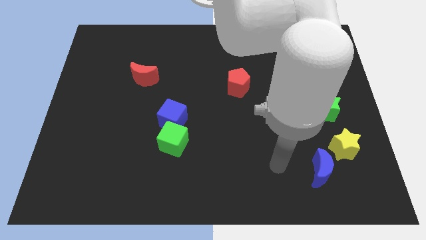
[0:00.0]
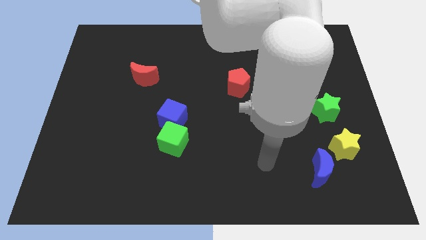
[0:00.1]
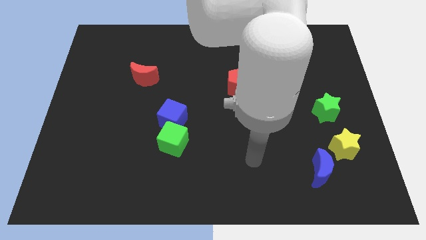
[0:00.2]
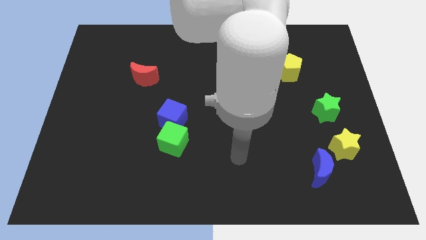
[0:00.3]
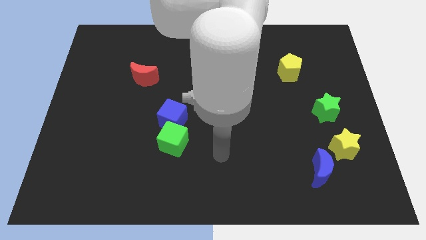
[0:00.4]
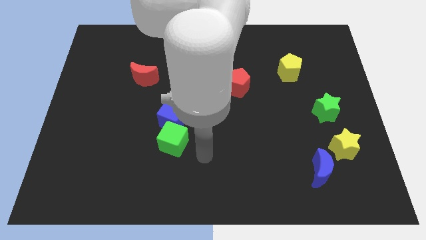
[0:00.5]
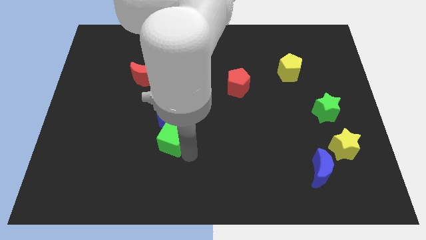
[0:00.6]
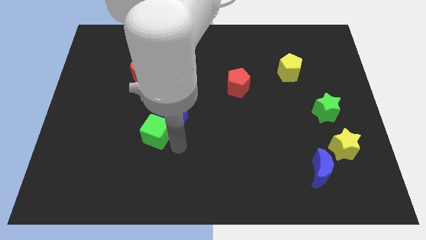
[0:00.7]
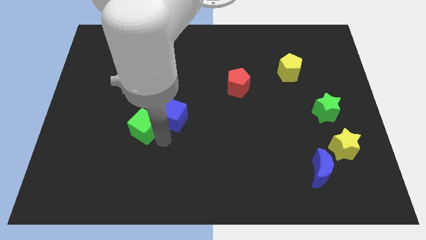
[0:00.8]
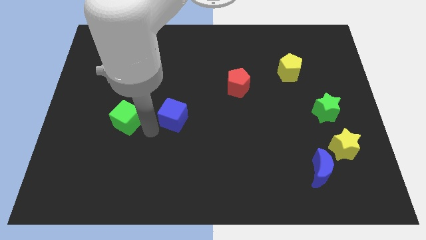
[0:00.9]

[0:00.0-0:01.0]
pull the blue cube apart from the green cube

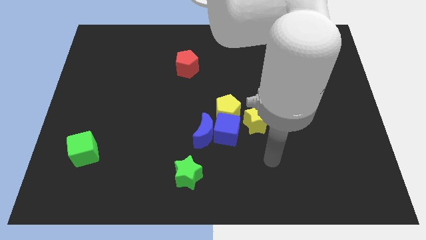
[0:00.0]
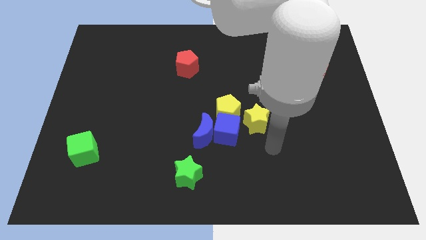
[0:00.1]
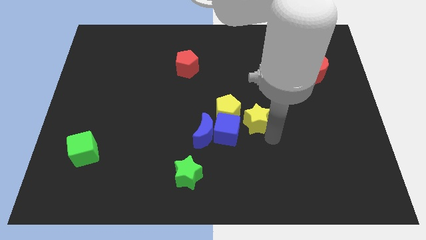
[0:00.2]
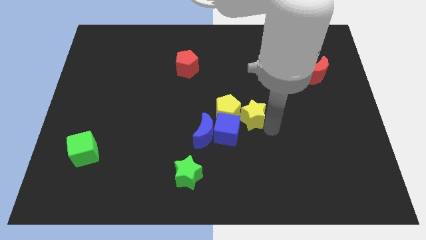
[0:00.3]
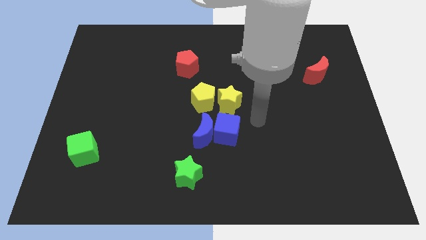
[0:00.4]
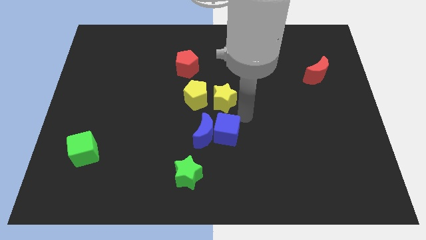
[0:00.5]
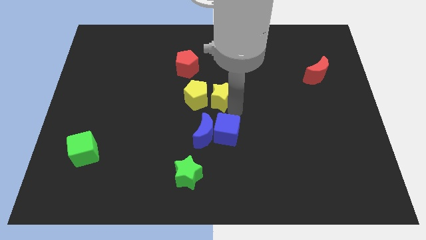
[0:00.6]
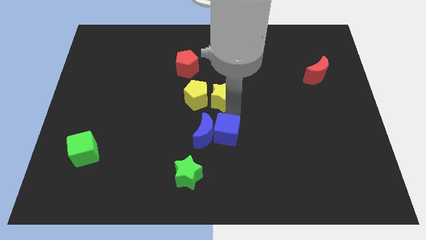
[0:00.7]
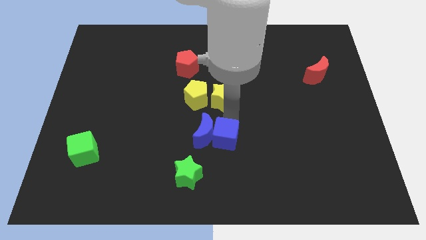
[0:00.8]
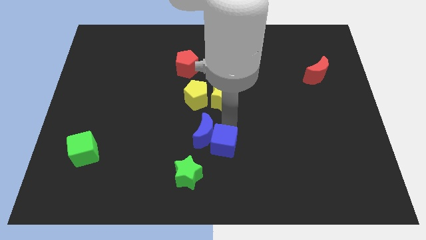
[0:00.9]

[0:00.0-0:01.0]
move the blue cube away from the group

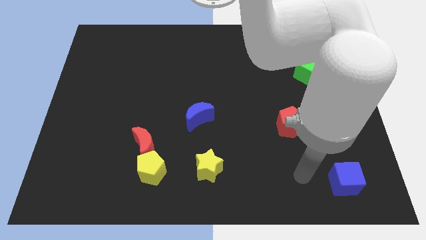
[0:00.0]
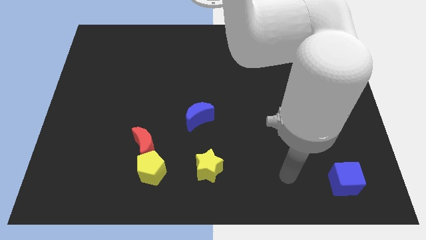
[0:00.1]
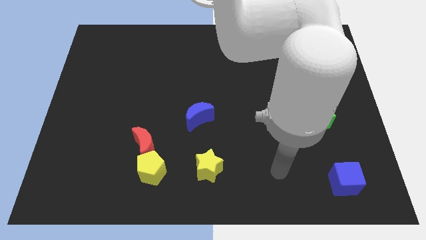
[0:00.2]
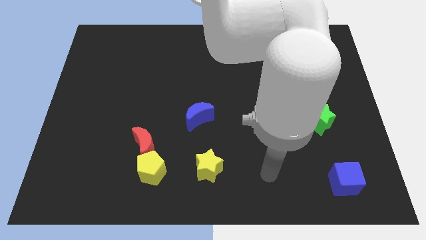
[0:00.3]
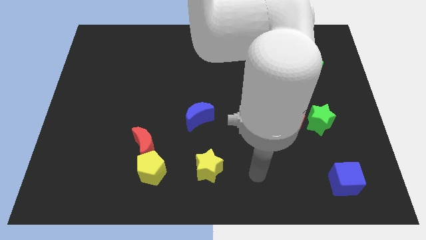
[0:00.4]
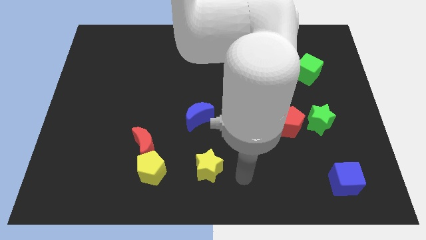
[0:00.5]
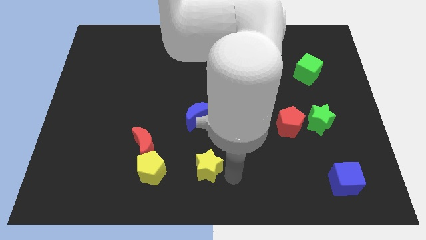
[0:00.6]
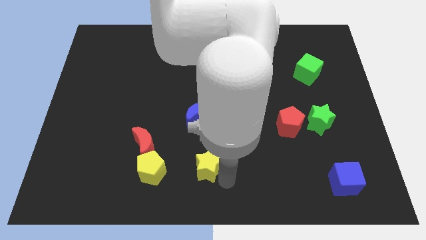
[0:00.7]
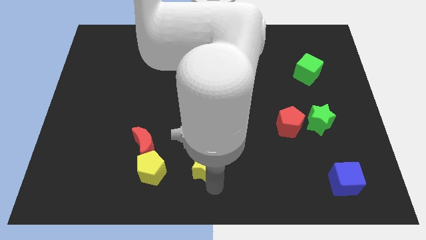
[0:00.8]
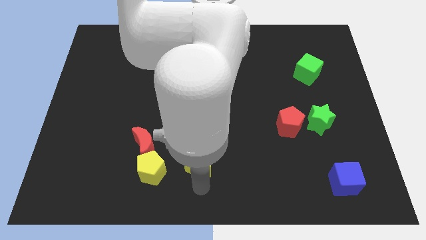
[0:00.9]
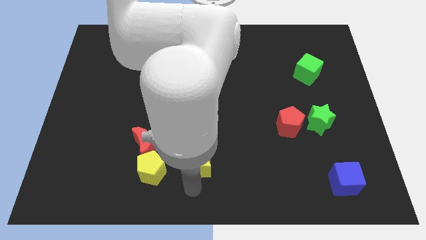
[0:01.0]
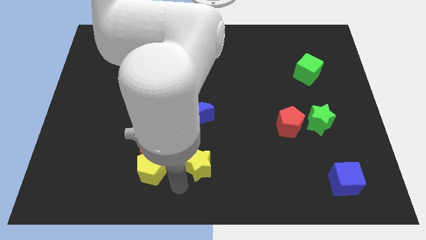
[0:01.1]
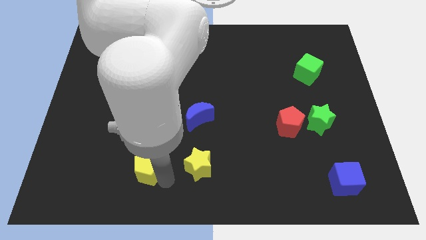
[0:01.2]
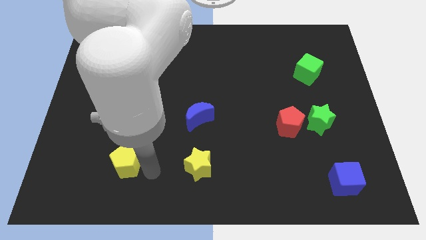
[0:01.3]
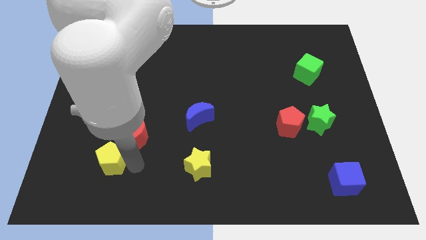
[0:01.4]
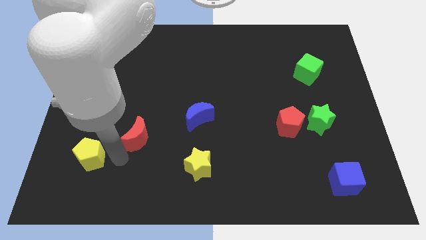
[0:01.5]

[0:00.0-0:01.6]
pull the red moon apart from the yellow pentagon

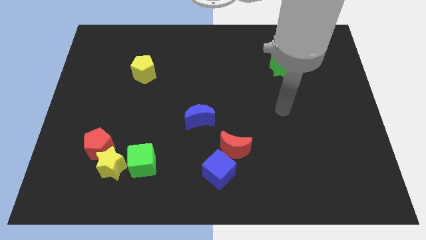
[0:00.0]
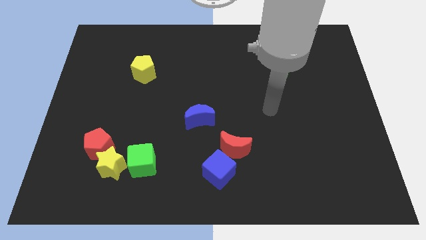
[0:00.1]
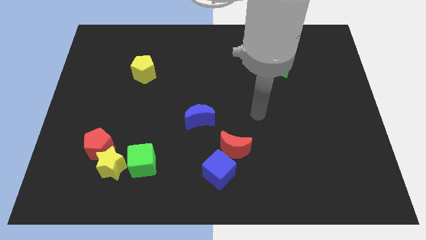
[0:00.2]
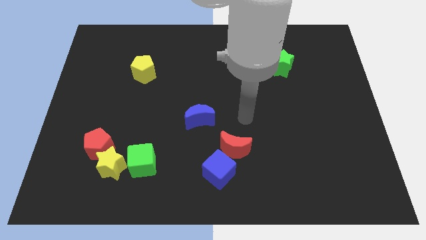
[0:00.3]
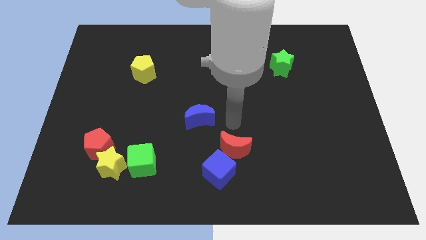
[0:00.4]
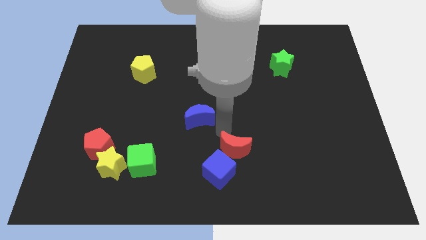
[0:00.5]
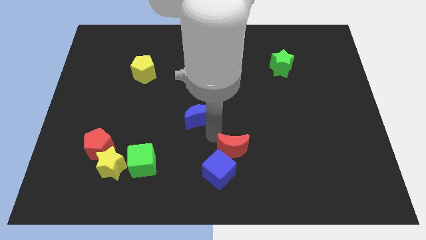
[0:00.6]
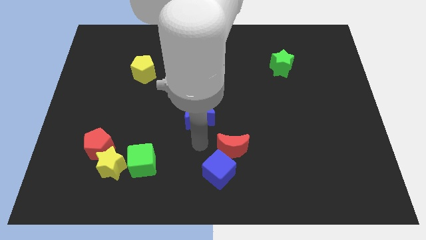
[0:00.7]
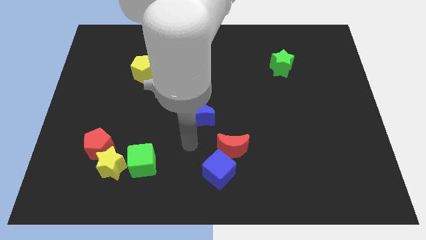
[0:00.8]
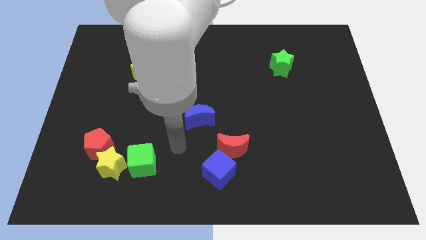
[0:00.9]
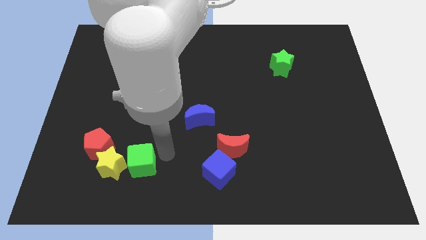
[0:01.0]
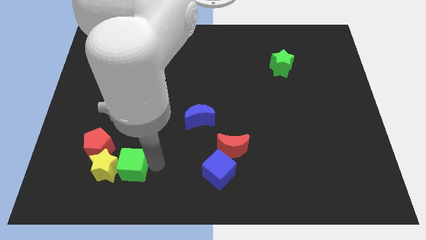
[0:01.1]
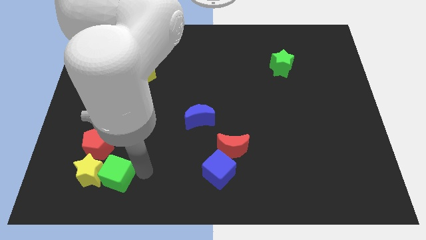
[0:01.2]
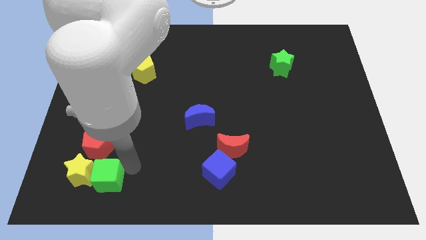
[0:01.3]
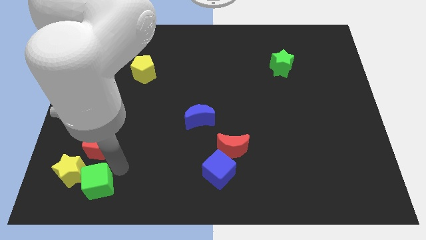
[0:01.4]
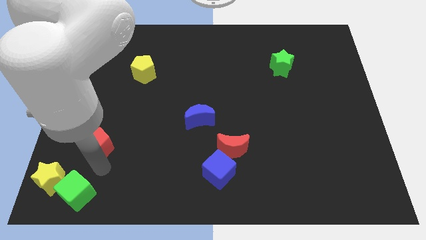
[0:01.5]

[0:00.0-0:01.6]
pull the red pentagon apart from the yellow star

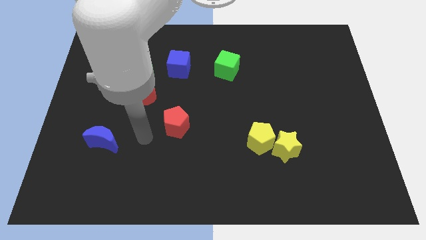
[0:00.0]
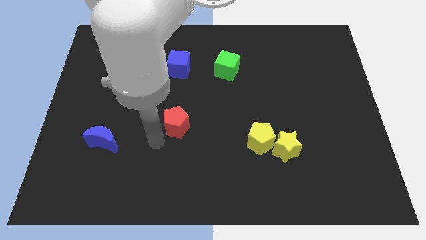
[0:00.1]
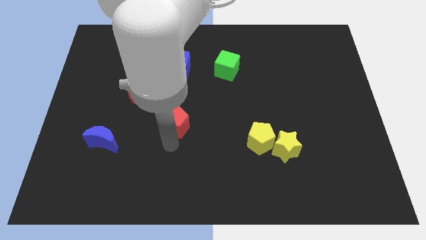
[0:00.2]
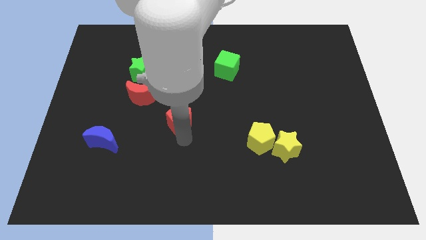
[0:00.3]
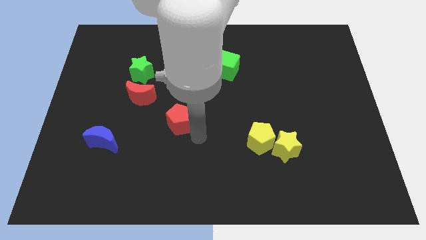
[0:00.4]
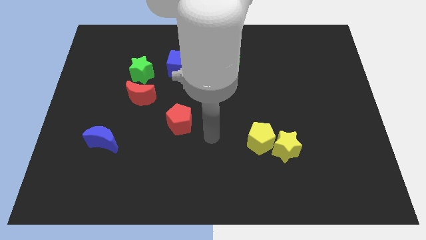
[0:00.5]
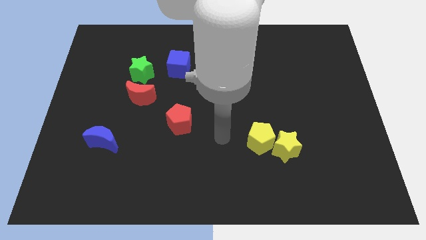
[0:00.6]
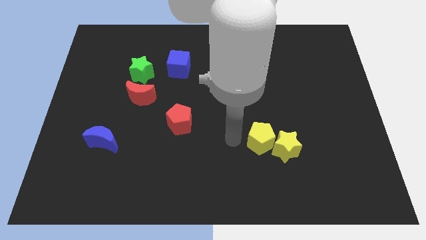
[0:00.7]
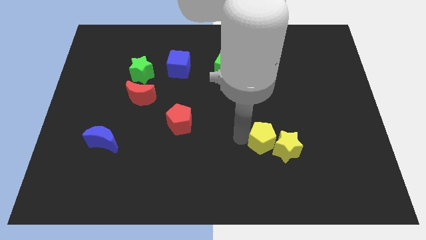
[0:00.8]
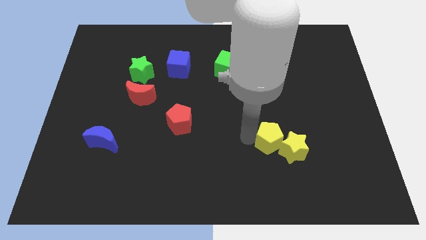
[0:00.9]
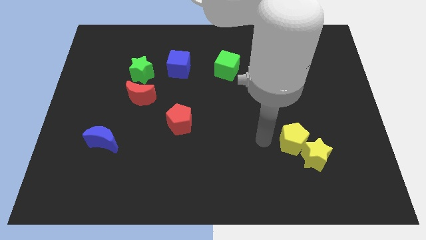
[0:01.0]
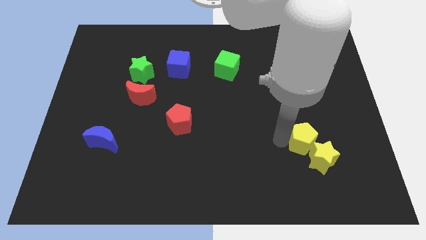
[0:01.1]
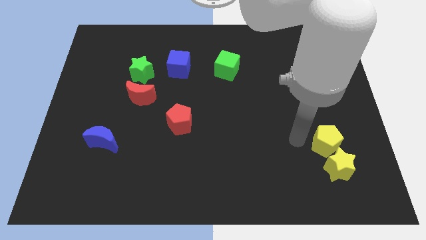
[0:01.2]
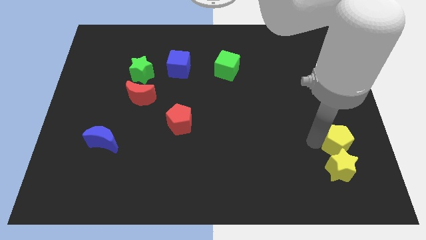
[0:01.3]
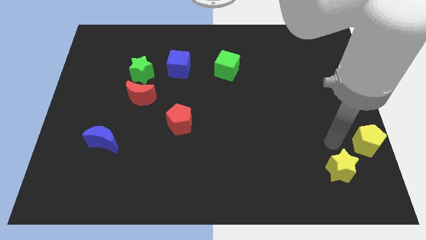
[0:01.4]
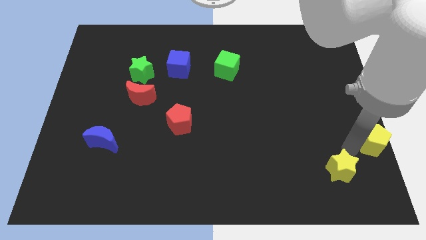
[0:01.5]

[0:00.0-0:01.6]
pull the yellow star apart from the yellow pentagon

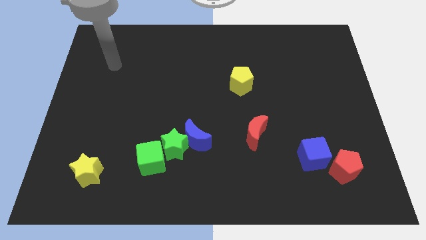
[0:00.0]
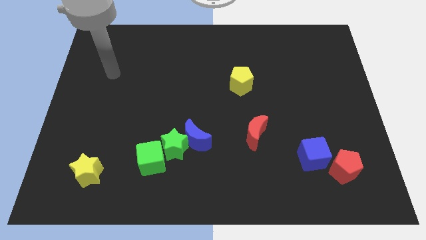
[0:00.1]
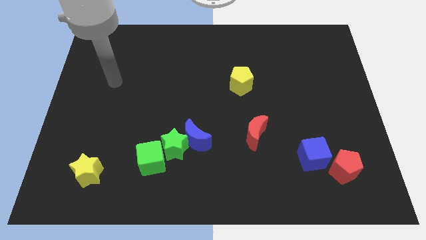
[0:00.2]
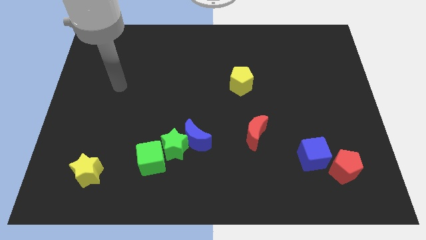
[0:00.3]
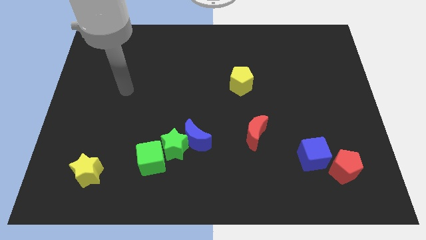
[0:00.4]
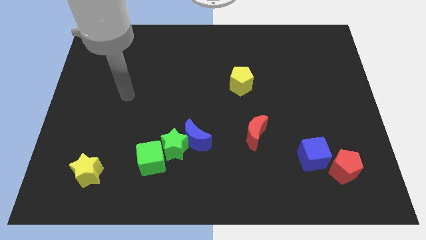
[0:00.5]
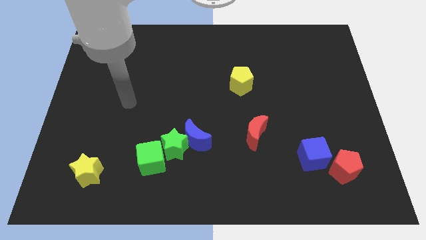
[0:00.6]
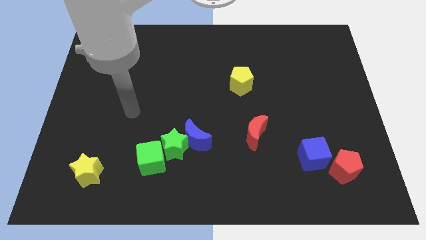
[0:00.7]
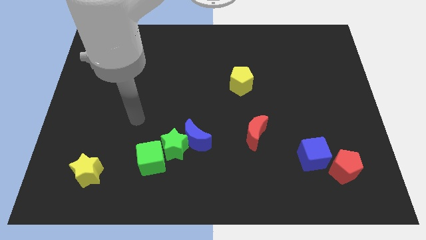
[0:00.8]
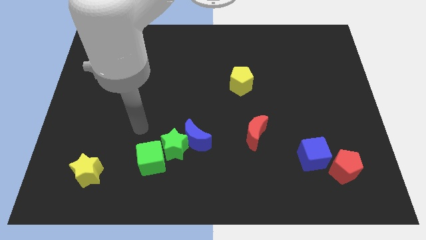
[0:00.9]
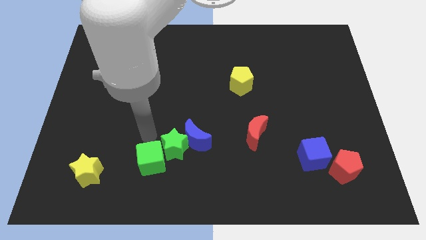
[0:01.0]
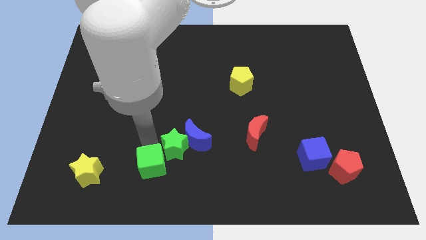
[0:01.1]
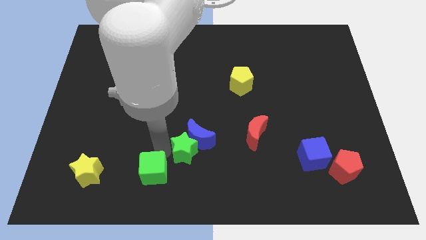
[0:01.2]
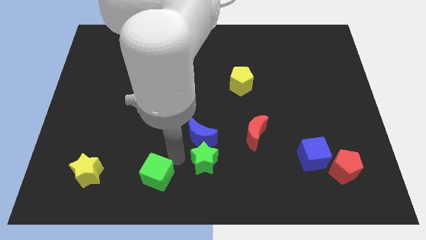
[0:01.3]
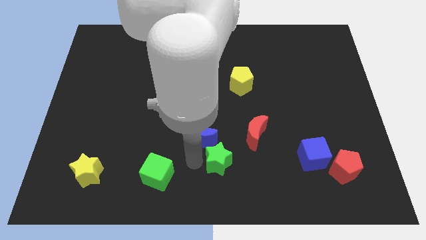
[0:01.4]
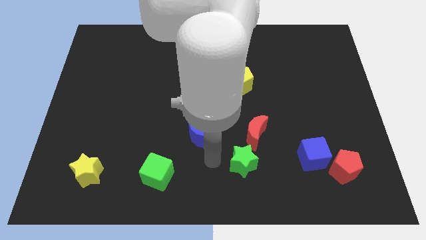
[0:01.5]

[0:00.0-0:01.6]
separate the blue moon from the green star

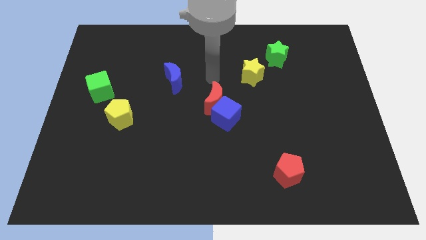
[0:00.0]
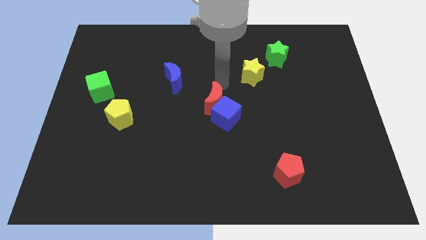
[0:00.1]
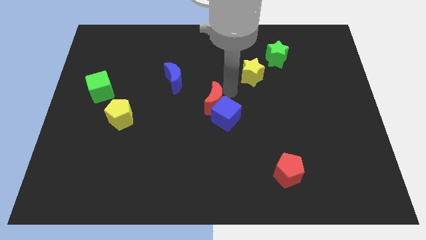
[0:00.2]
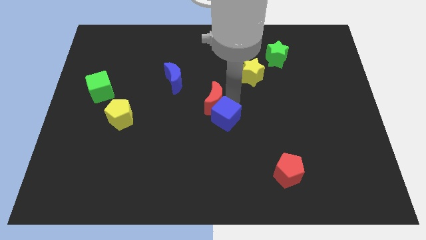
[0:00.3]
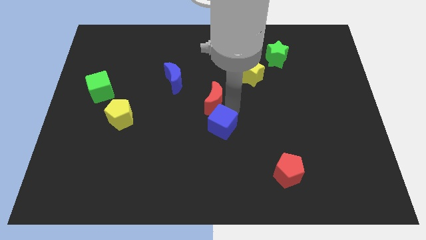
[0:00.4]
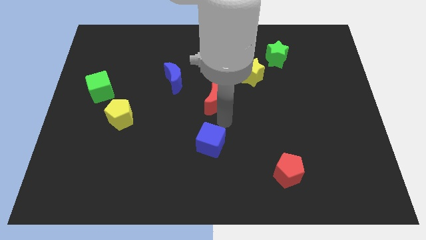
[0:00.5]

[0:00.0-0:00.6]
pull the red moon apart from the blue cube

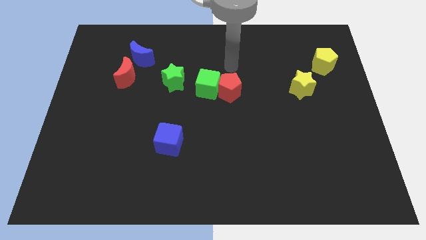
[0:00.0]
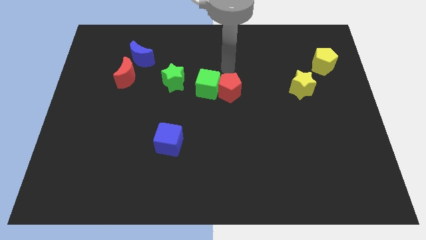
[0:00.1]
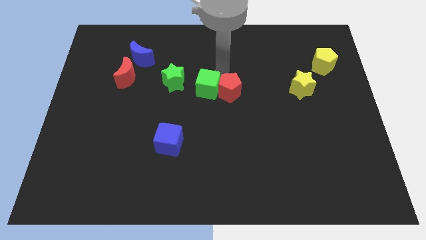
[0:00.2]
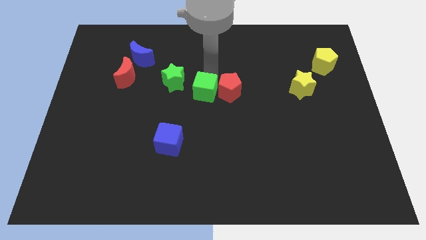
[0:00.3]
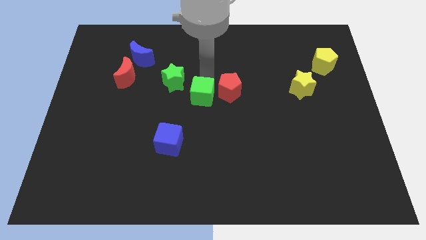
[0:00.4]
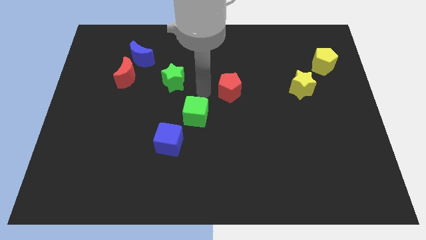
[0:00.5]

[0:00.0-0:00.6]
pull the red pentagon apart from the green cube
